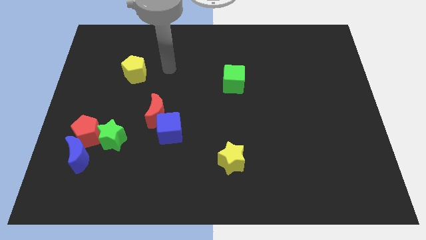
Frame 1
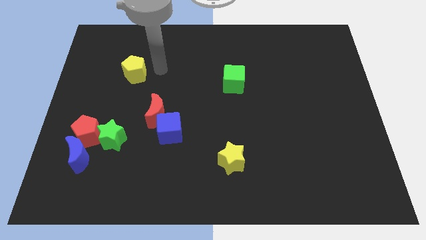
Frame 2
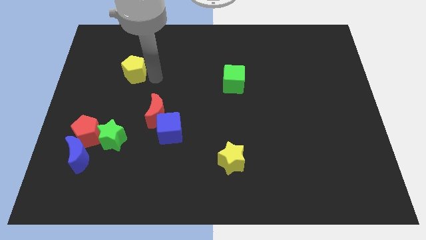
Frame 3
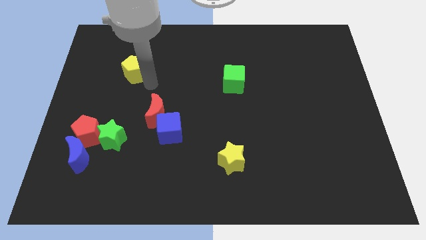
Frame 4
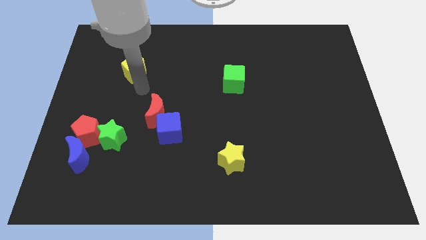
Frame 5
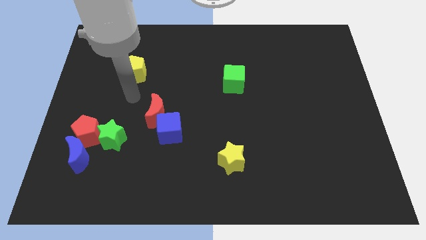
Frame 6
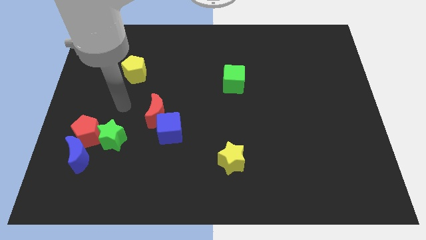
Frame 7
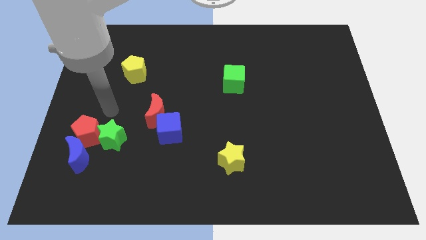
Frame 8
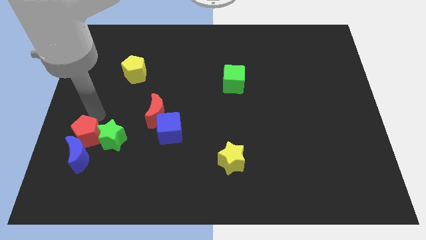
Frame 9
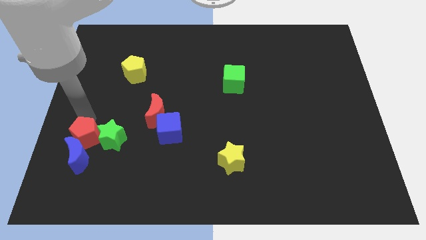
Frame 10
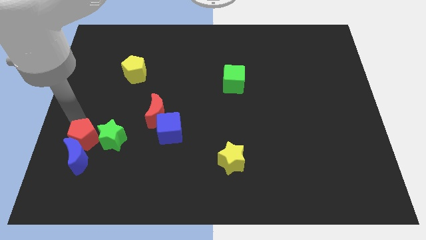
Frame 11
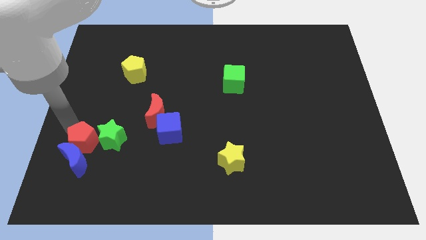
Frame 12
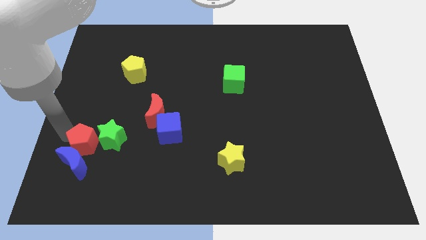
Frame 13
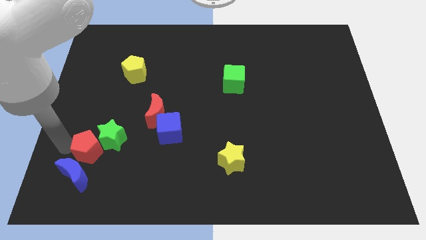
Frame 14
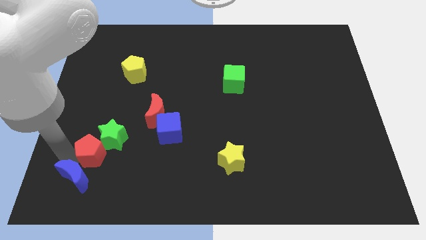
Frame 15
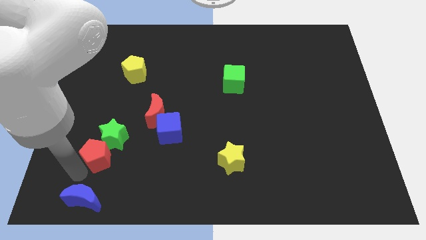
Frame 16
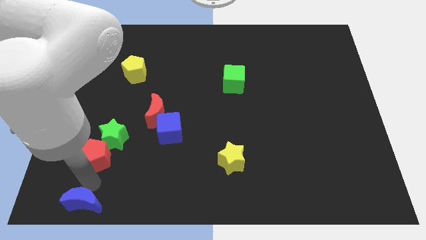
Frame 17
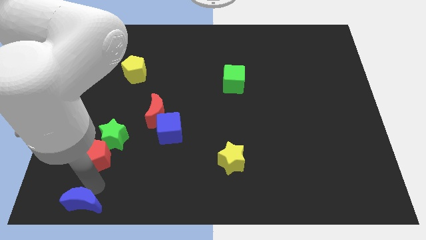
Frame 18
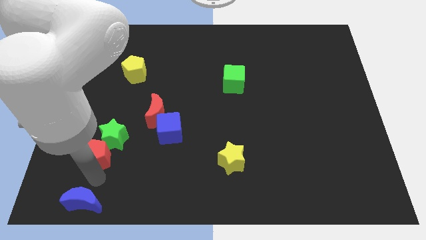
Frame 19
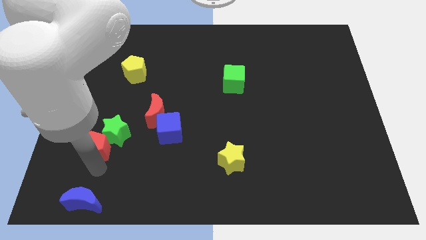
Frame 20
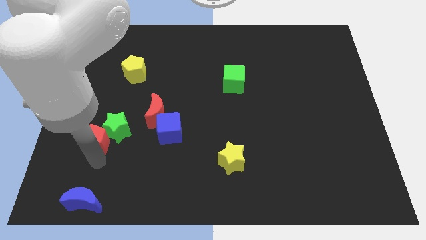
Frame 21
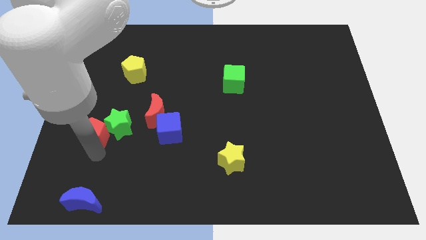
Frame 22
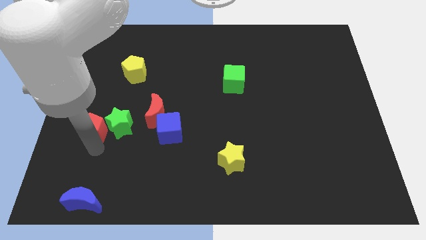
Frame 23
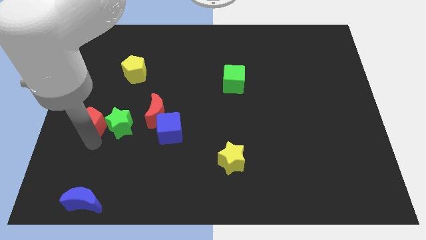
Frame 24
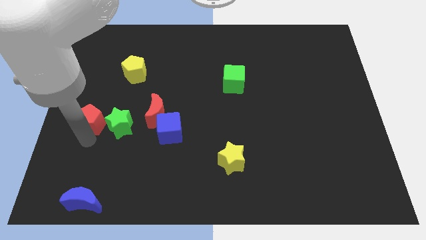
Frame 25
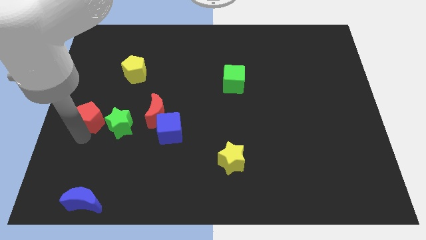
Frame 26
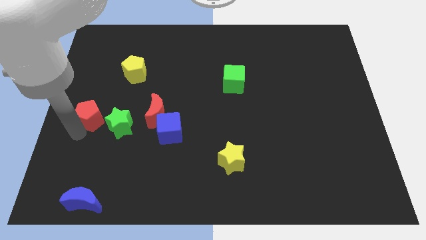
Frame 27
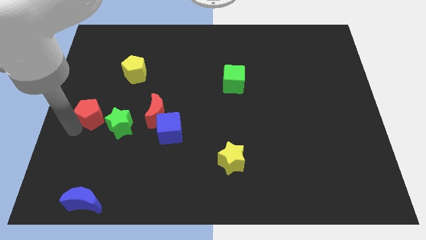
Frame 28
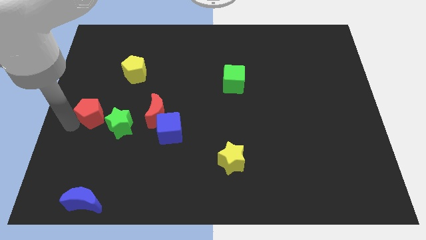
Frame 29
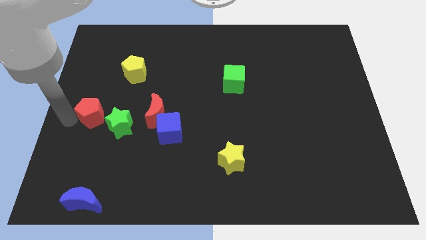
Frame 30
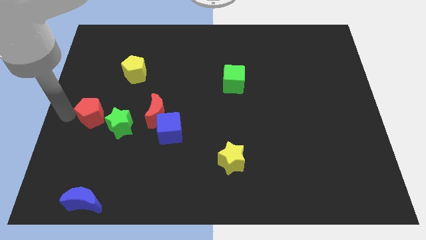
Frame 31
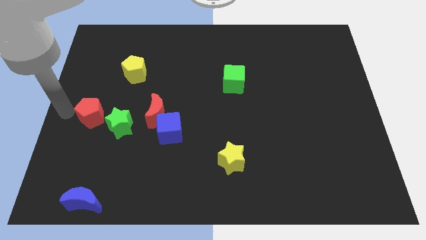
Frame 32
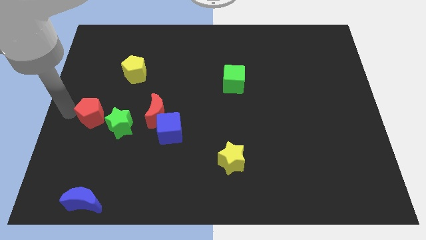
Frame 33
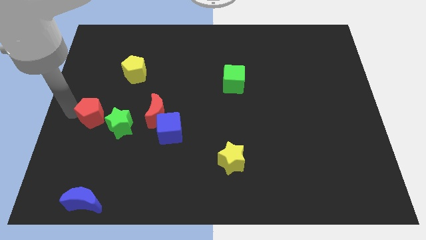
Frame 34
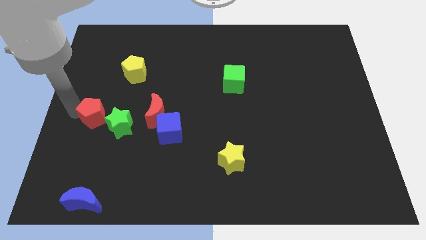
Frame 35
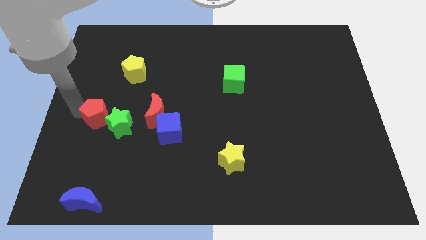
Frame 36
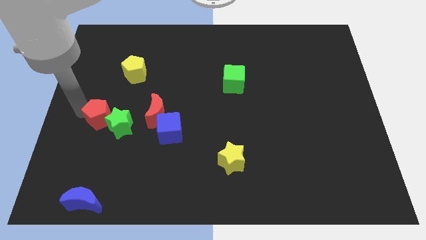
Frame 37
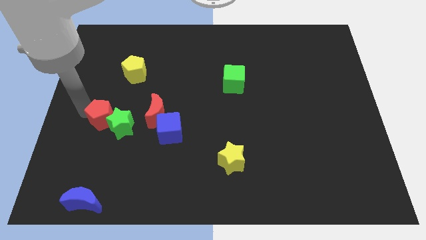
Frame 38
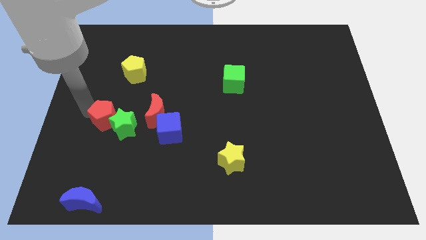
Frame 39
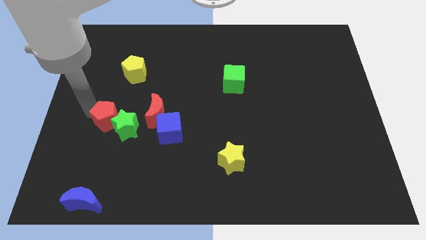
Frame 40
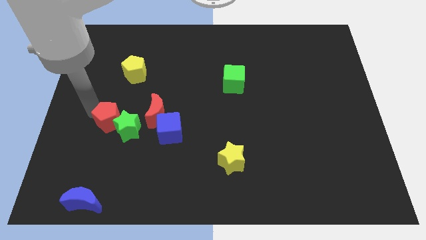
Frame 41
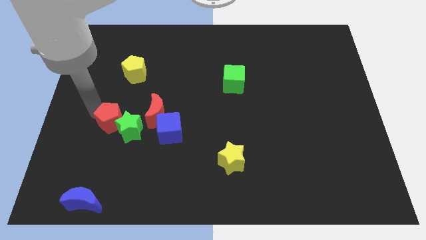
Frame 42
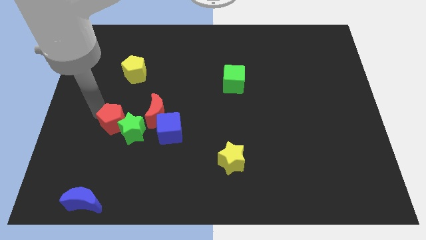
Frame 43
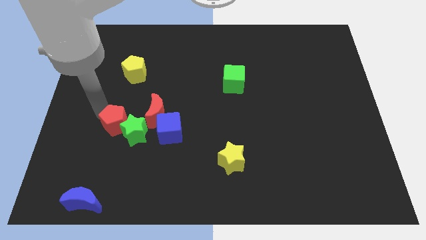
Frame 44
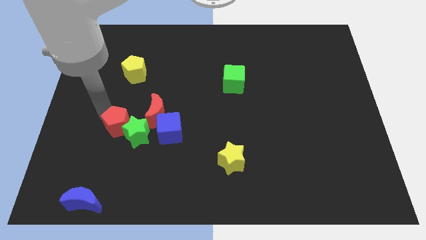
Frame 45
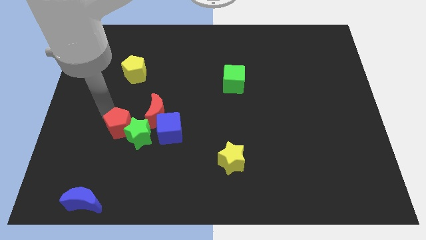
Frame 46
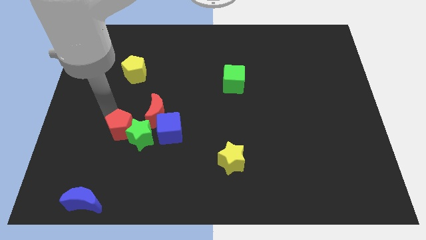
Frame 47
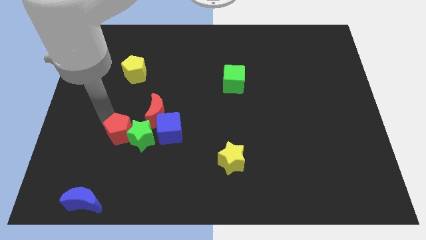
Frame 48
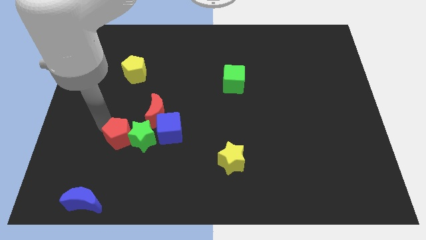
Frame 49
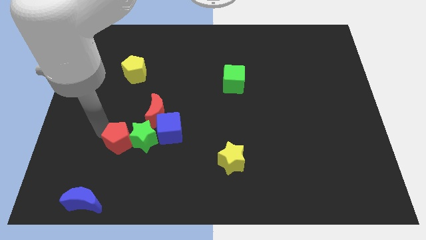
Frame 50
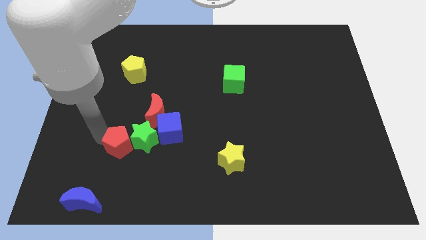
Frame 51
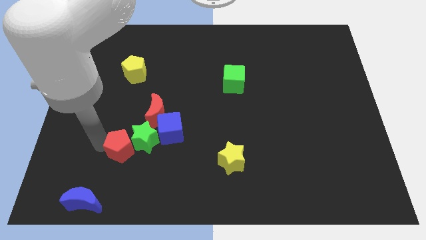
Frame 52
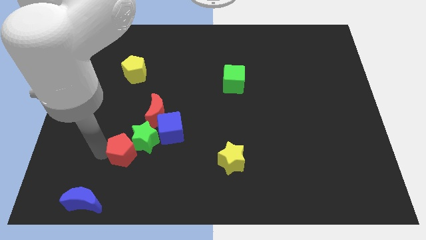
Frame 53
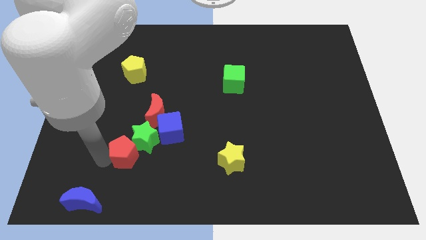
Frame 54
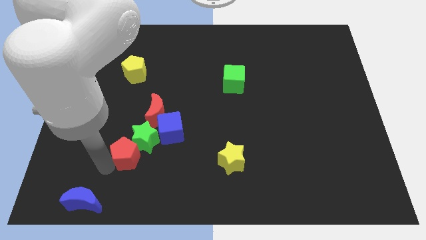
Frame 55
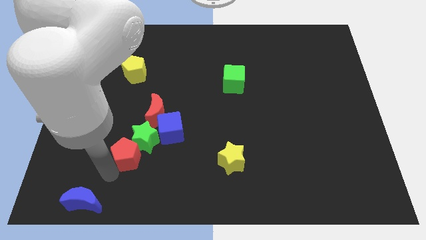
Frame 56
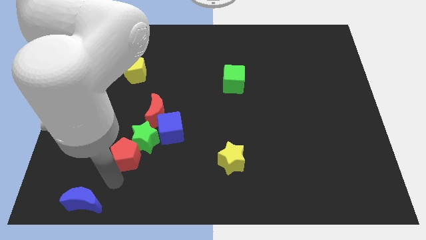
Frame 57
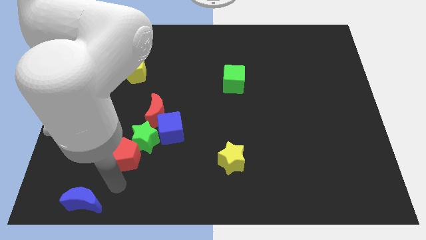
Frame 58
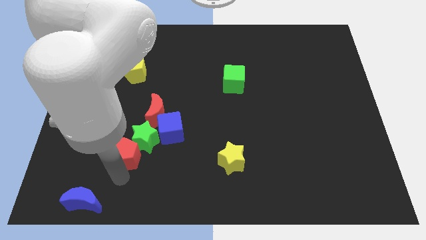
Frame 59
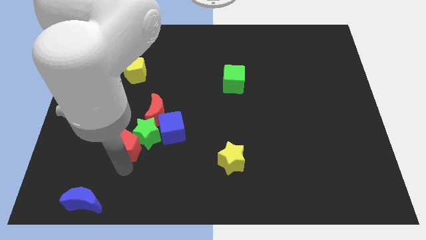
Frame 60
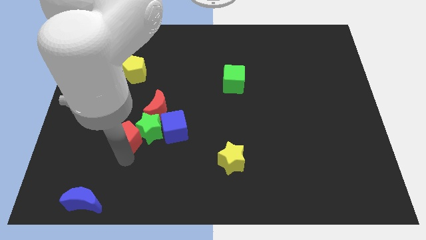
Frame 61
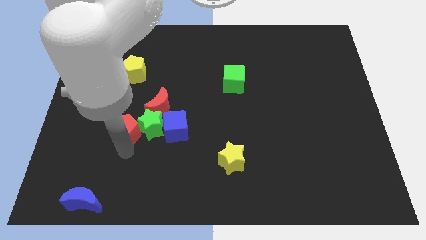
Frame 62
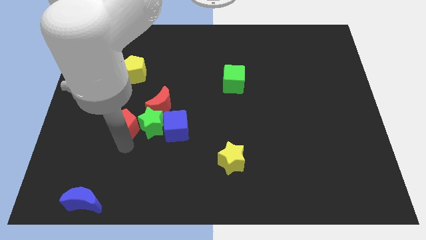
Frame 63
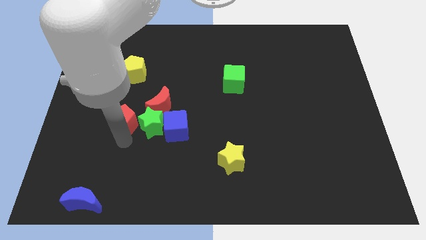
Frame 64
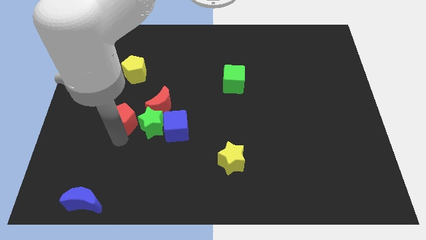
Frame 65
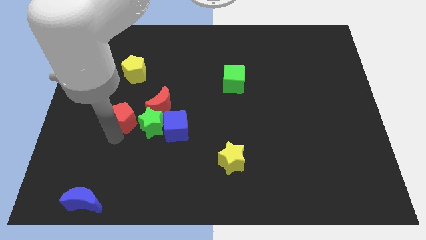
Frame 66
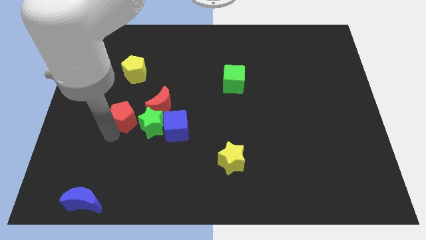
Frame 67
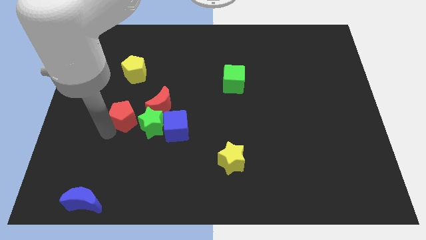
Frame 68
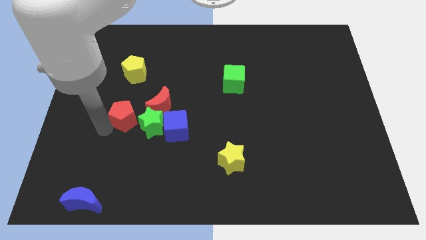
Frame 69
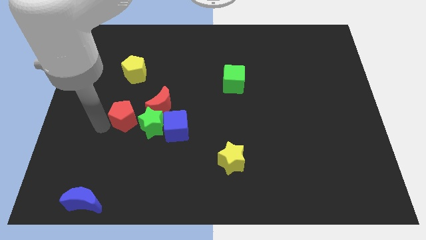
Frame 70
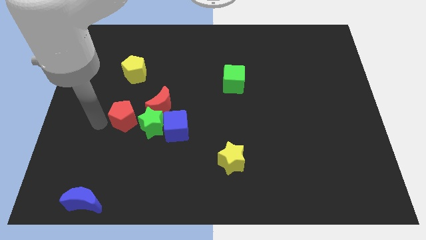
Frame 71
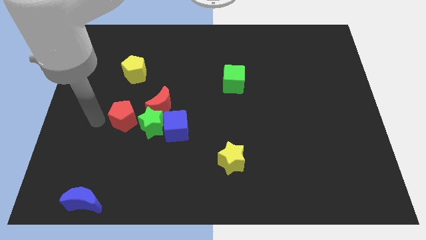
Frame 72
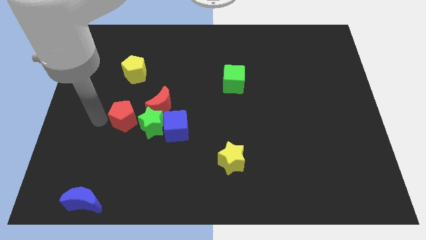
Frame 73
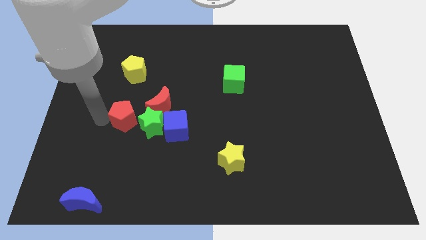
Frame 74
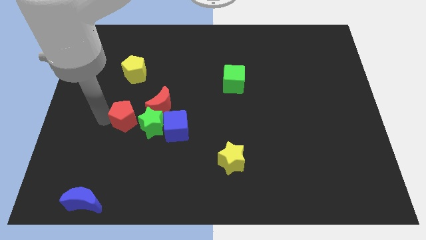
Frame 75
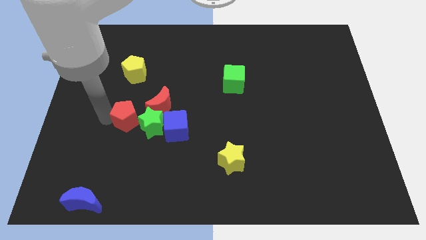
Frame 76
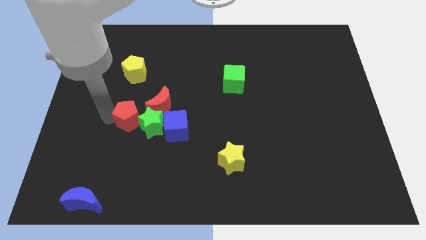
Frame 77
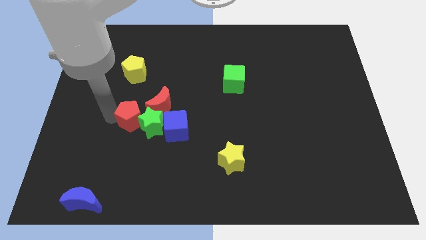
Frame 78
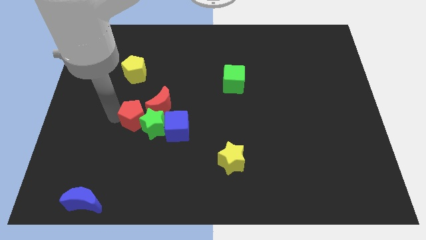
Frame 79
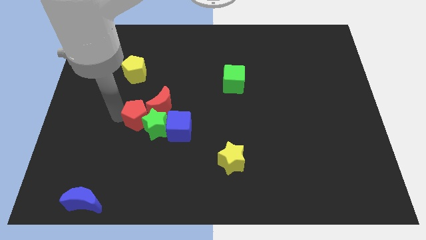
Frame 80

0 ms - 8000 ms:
put the red pentagon close to the red moon
